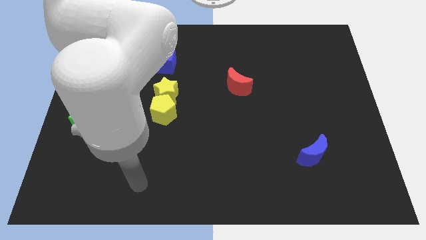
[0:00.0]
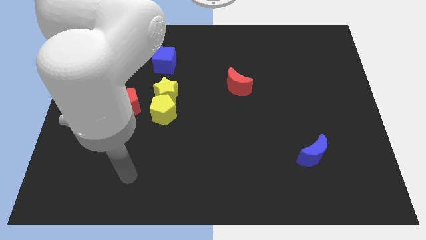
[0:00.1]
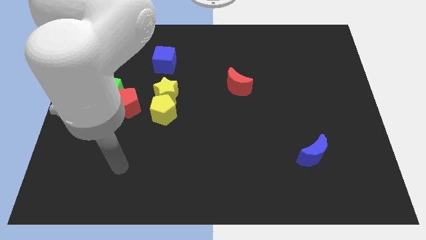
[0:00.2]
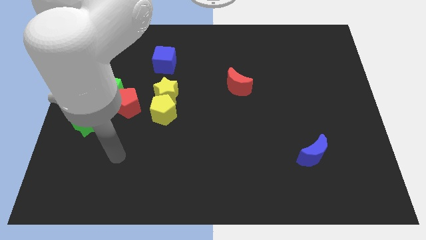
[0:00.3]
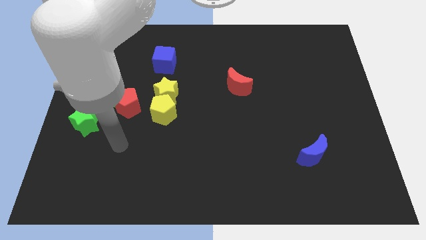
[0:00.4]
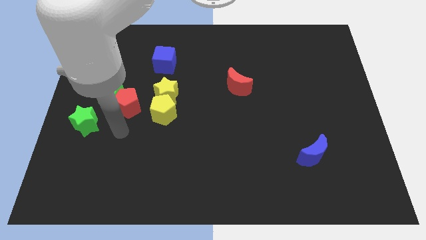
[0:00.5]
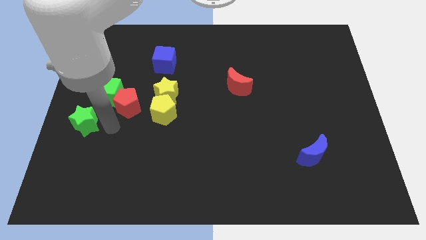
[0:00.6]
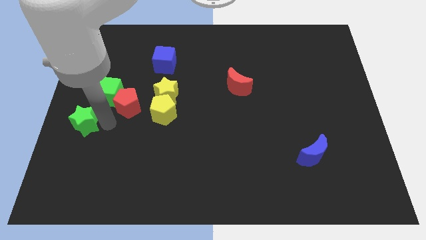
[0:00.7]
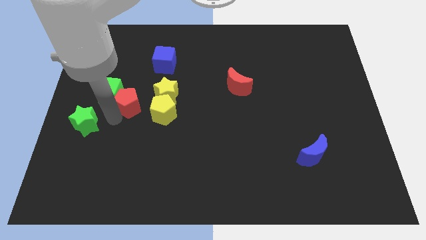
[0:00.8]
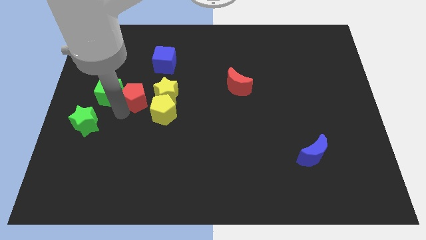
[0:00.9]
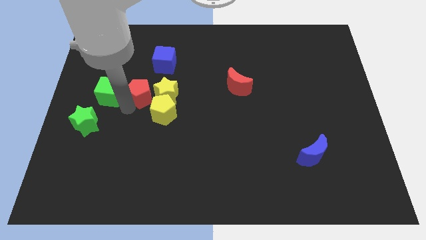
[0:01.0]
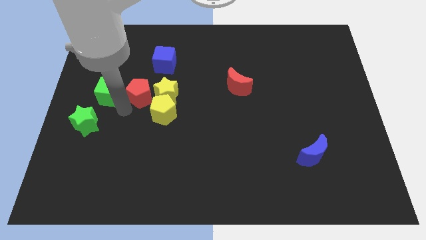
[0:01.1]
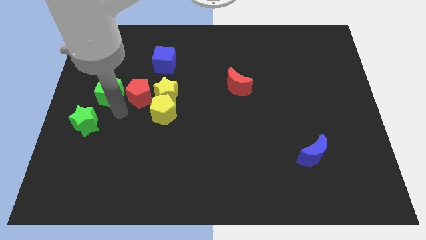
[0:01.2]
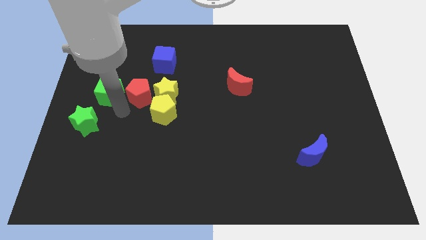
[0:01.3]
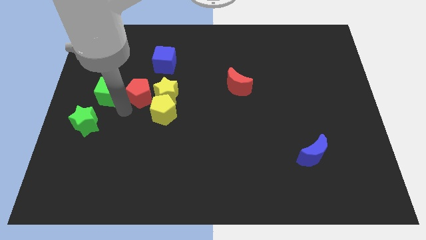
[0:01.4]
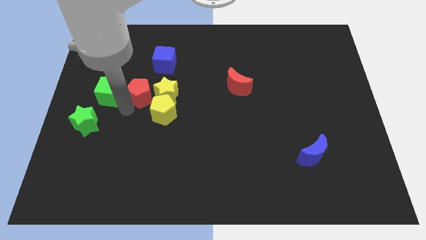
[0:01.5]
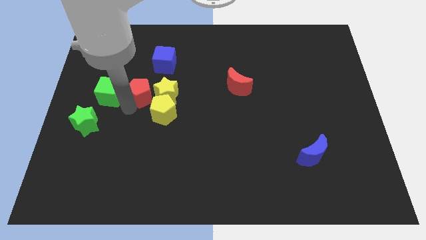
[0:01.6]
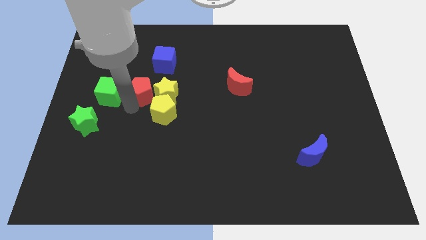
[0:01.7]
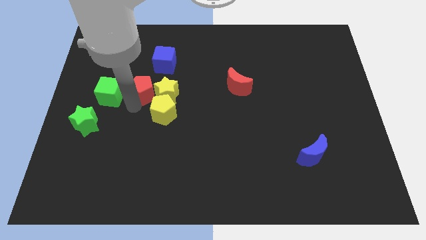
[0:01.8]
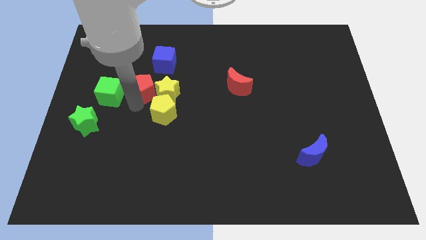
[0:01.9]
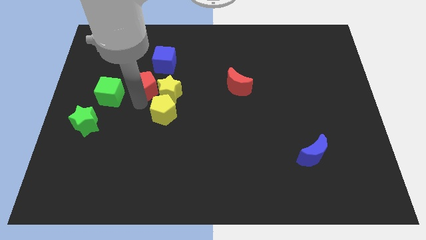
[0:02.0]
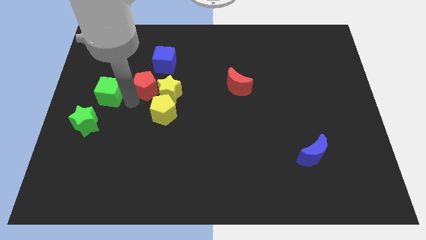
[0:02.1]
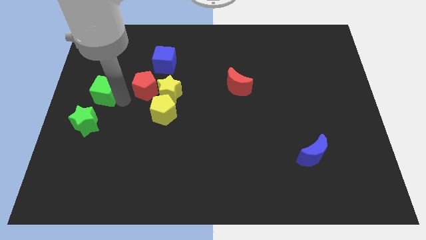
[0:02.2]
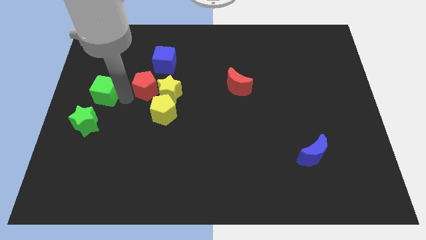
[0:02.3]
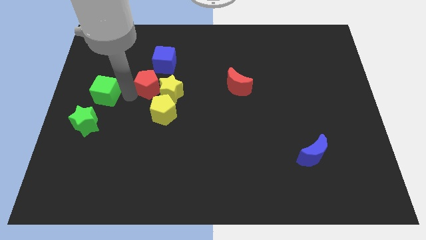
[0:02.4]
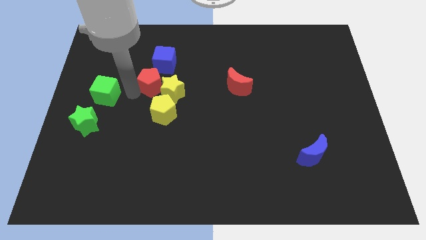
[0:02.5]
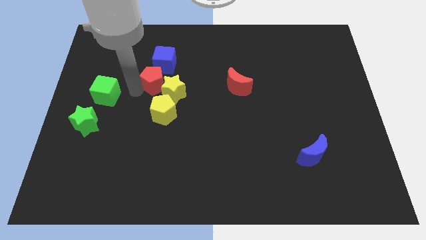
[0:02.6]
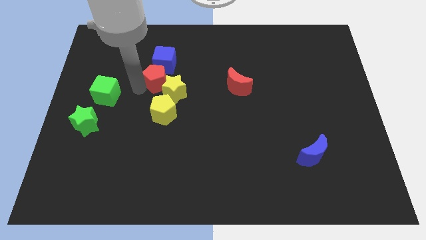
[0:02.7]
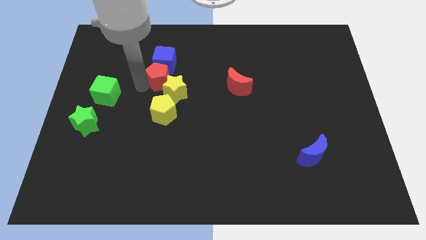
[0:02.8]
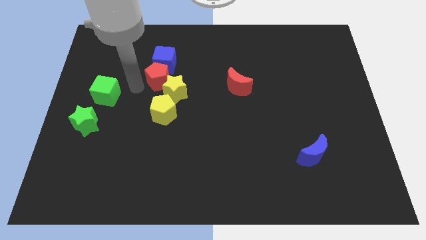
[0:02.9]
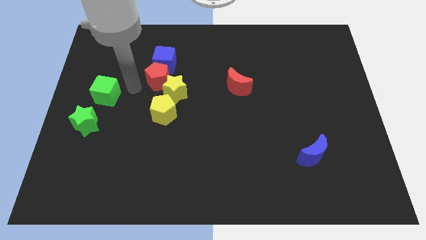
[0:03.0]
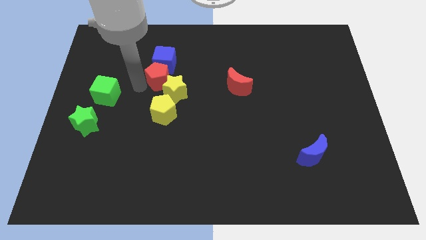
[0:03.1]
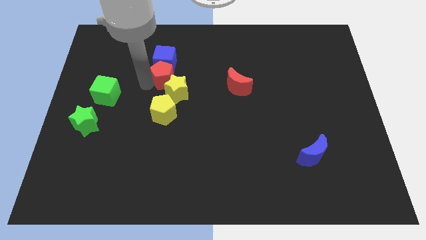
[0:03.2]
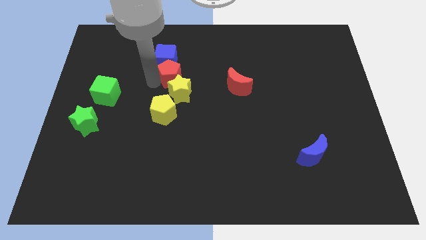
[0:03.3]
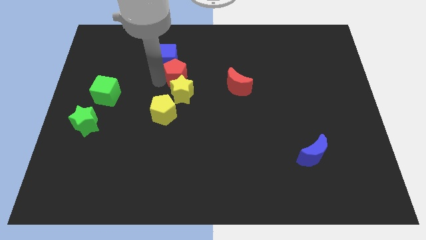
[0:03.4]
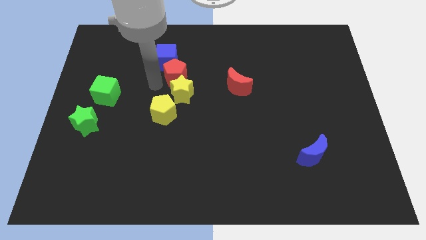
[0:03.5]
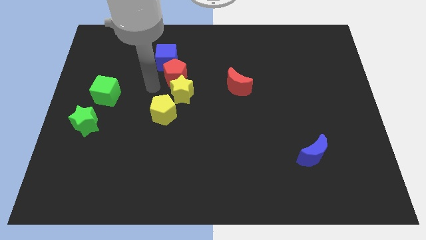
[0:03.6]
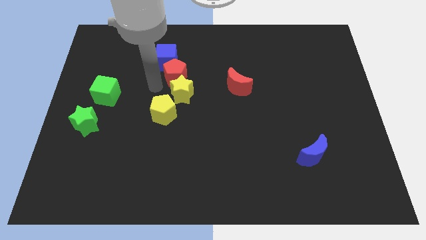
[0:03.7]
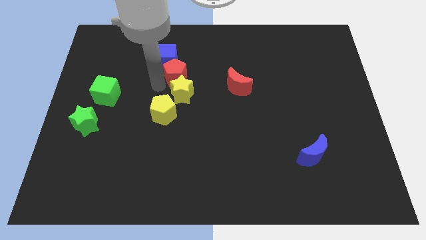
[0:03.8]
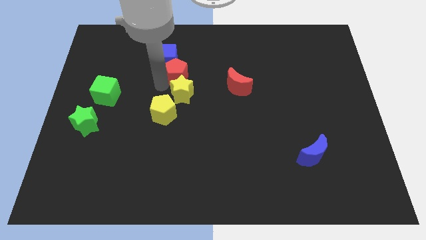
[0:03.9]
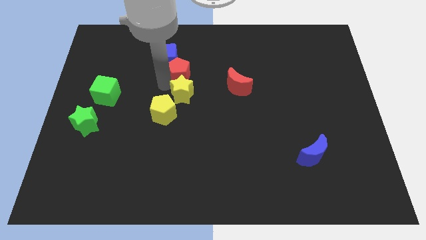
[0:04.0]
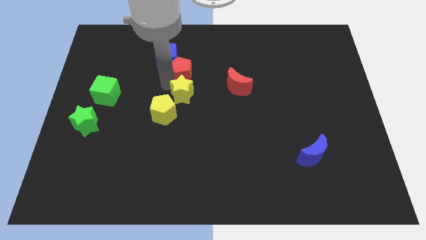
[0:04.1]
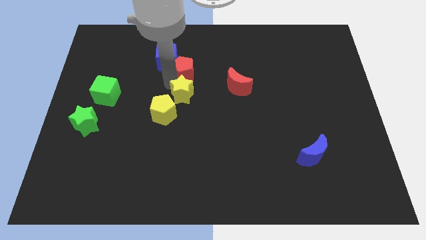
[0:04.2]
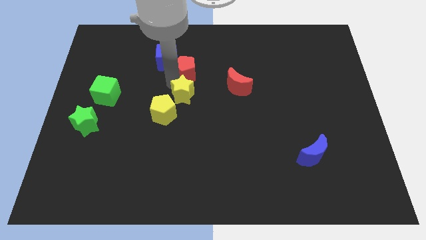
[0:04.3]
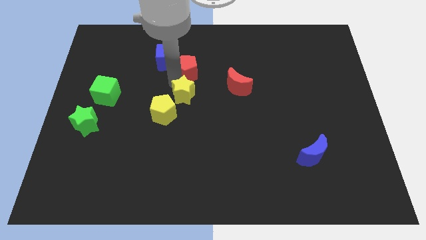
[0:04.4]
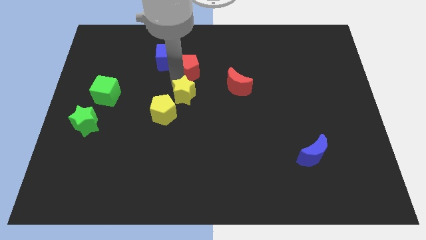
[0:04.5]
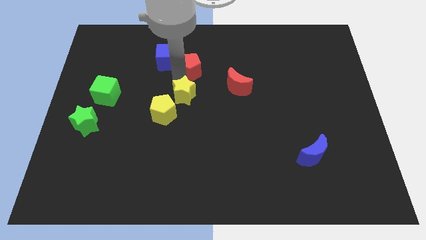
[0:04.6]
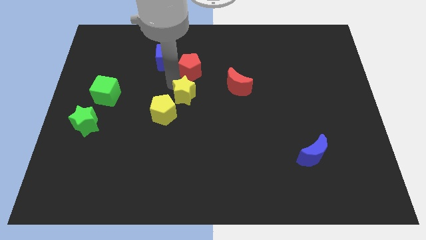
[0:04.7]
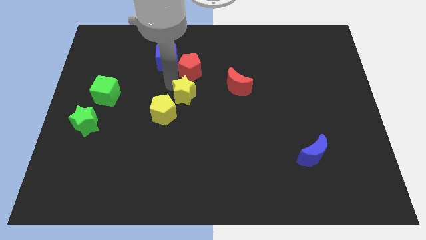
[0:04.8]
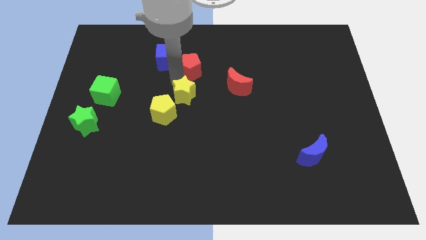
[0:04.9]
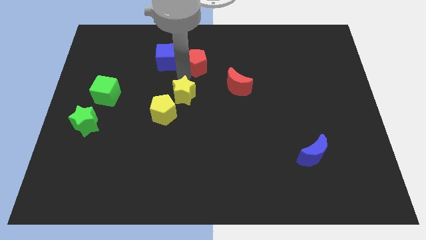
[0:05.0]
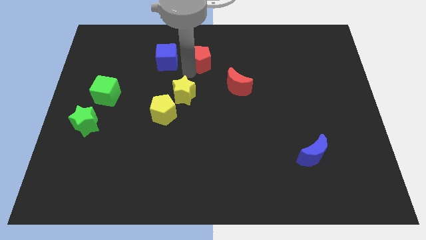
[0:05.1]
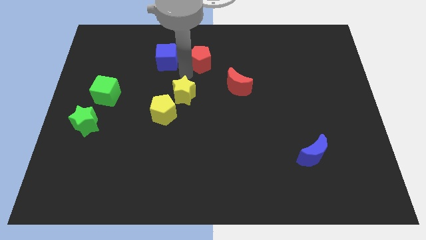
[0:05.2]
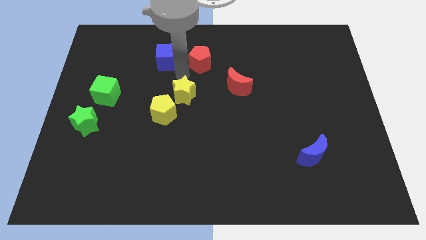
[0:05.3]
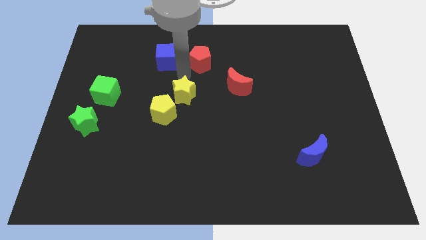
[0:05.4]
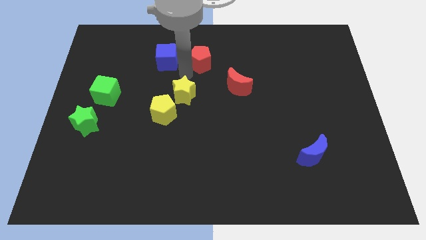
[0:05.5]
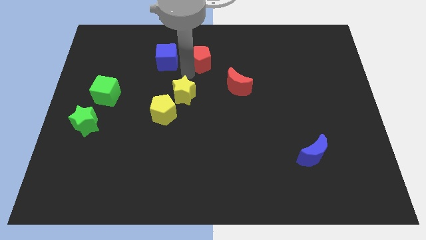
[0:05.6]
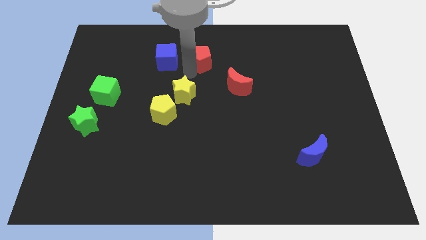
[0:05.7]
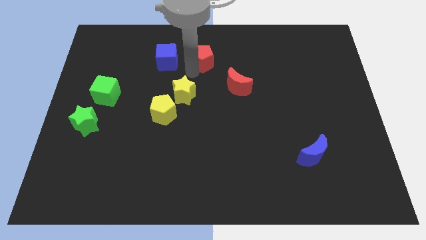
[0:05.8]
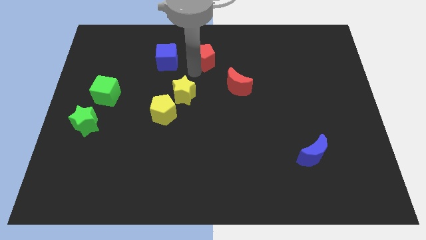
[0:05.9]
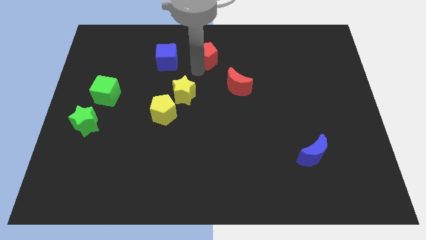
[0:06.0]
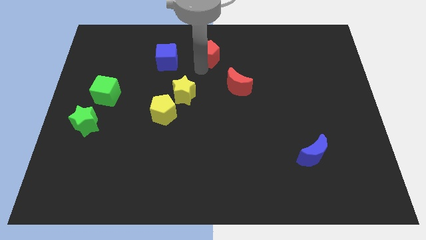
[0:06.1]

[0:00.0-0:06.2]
move the red pentagon to the top side
